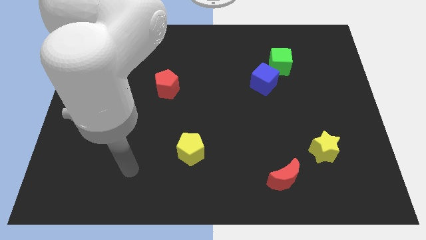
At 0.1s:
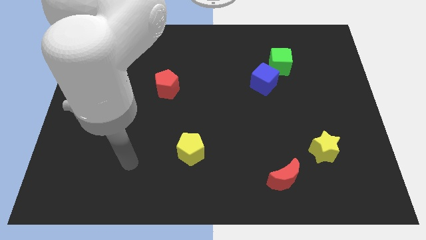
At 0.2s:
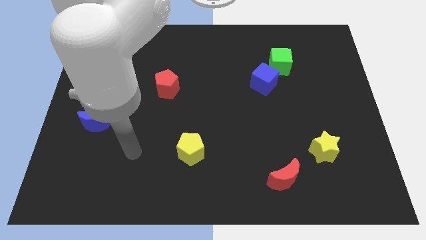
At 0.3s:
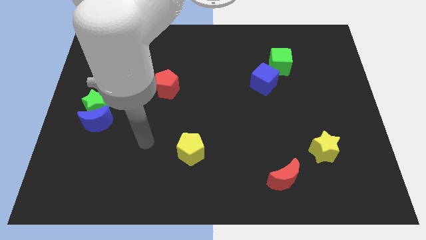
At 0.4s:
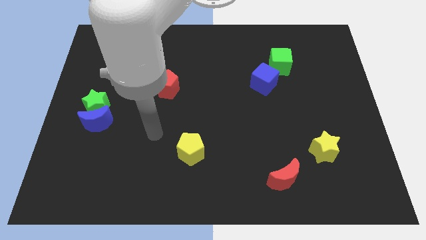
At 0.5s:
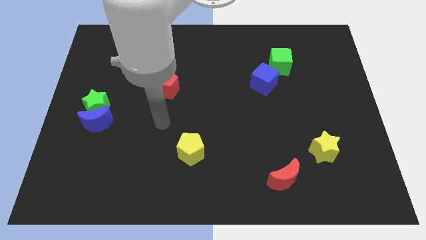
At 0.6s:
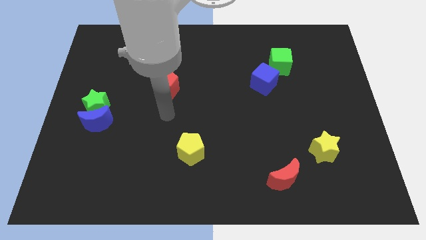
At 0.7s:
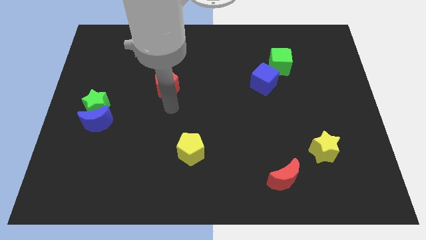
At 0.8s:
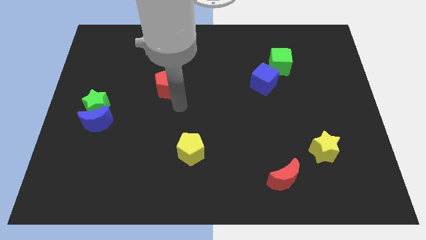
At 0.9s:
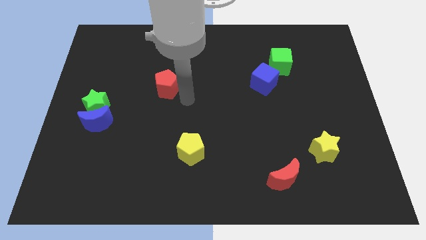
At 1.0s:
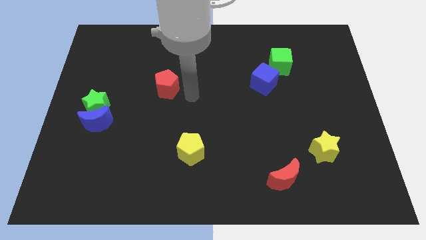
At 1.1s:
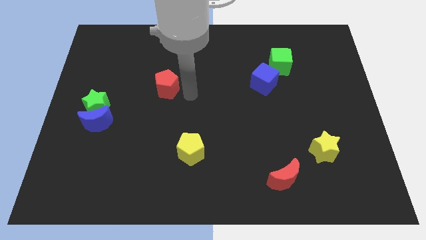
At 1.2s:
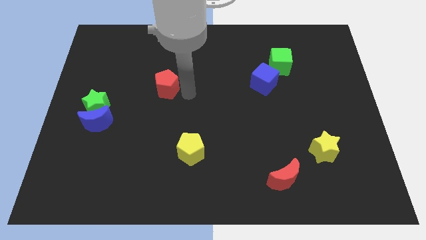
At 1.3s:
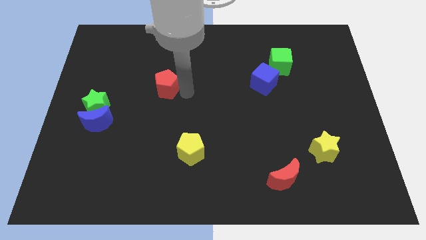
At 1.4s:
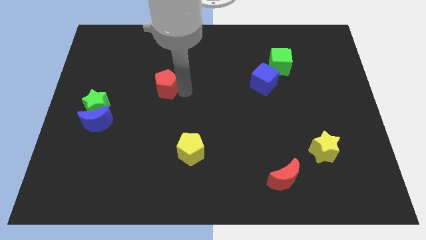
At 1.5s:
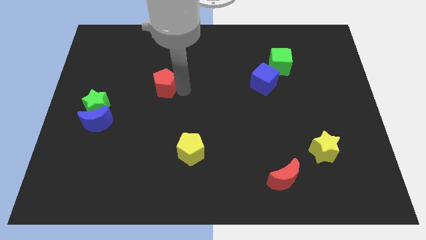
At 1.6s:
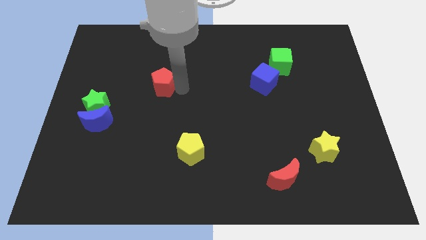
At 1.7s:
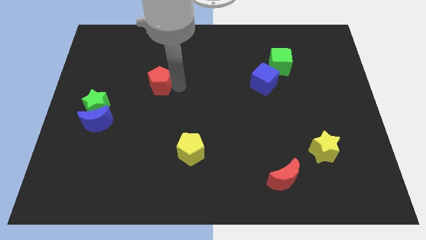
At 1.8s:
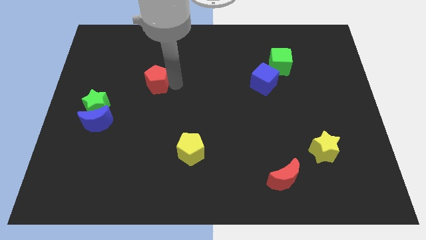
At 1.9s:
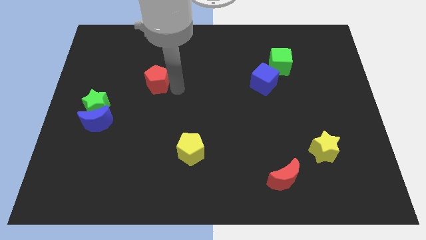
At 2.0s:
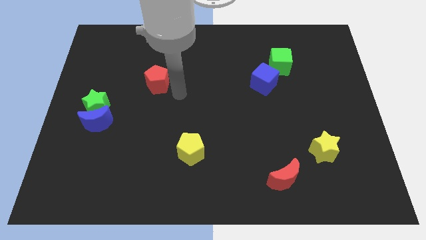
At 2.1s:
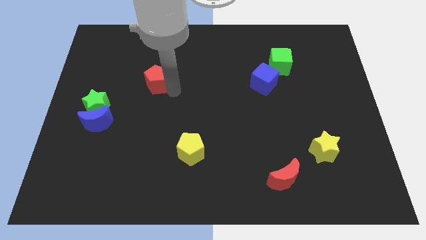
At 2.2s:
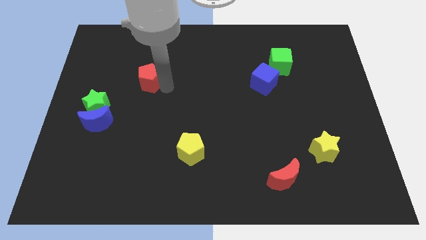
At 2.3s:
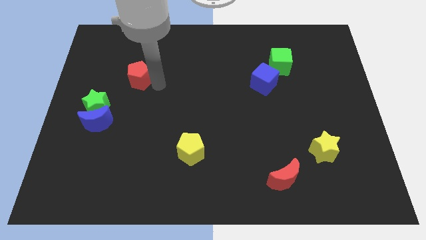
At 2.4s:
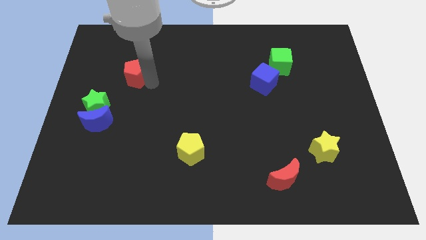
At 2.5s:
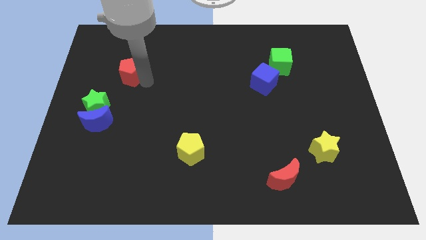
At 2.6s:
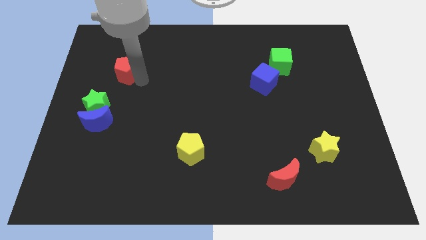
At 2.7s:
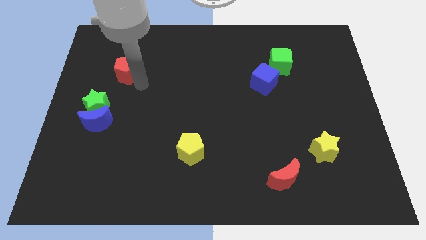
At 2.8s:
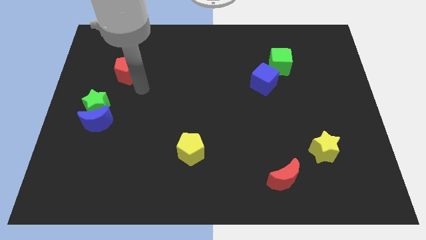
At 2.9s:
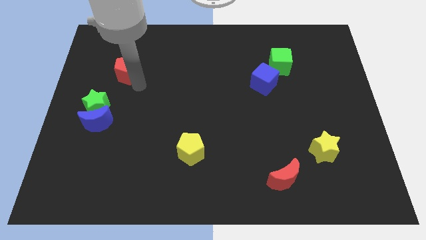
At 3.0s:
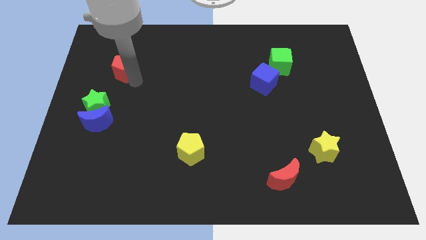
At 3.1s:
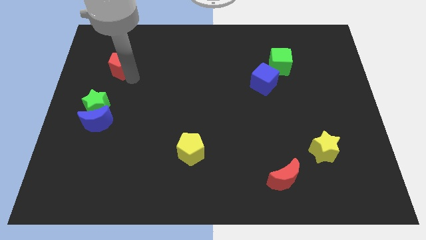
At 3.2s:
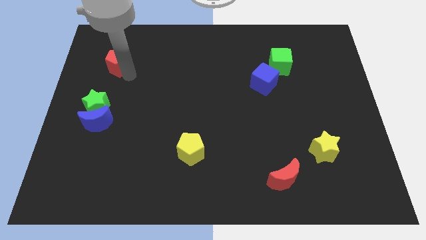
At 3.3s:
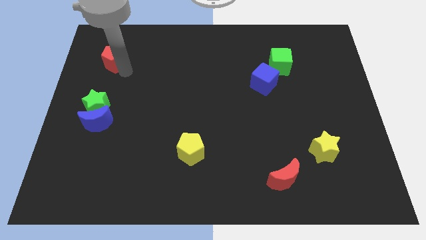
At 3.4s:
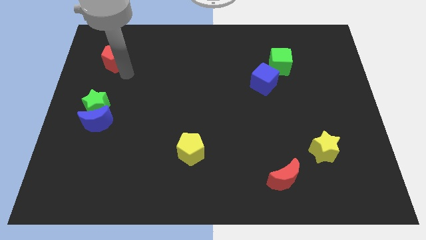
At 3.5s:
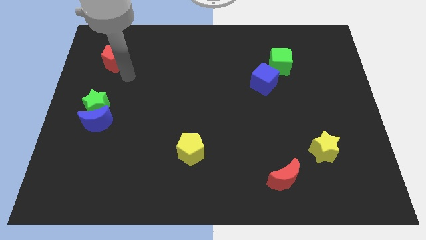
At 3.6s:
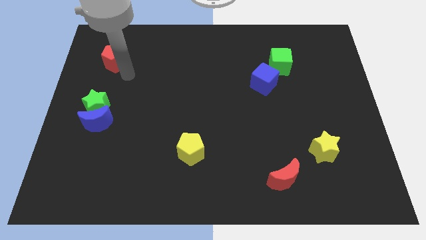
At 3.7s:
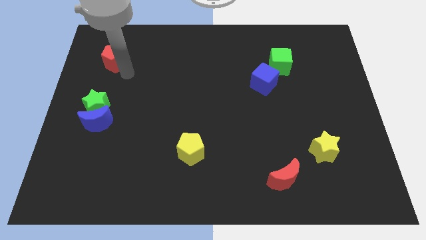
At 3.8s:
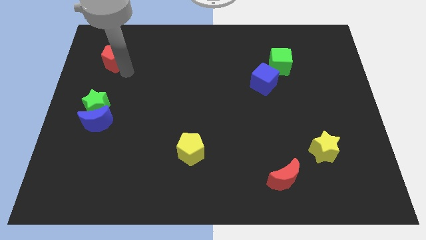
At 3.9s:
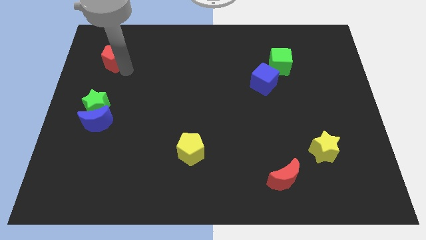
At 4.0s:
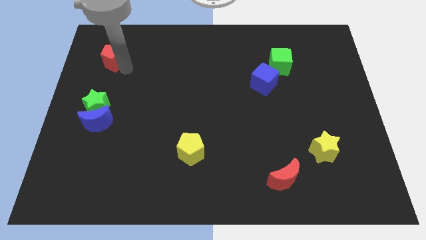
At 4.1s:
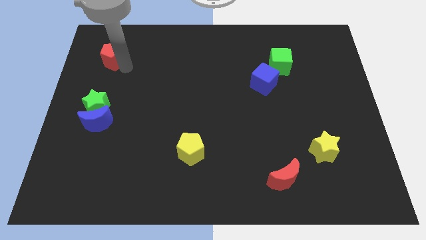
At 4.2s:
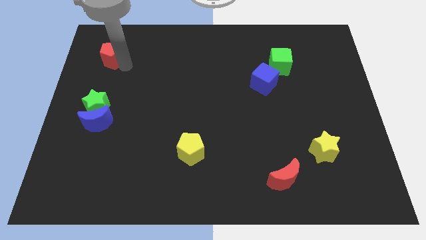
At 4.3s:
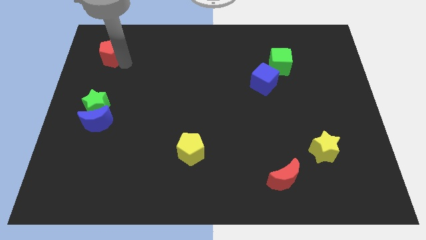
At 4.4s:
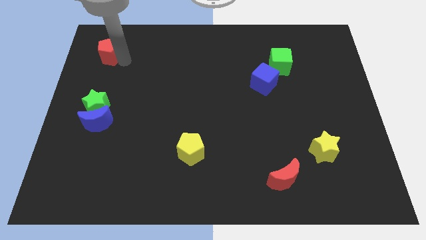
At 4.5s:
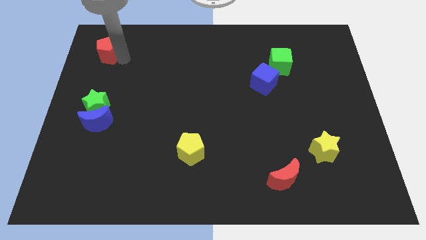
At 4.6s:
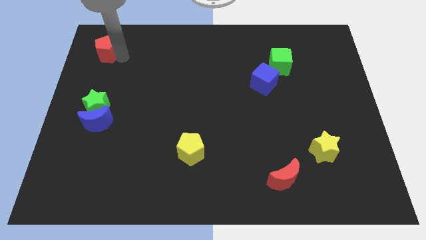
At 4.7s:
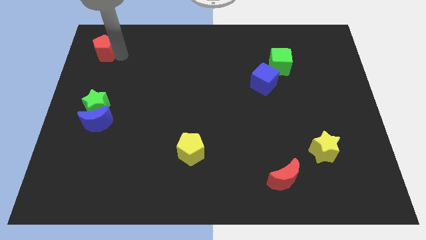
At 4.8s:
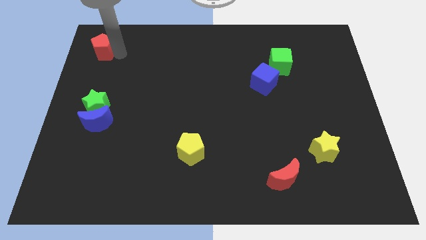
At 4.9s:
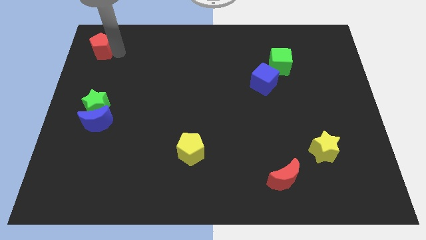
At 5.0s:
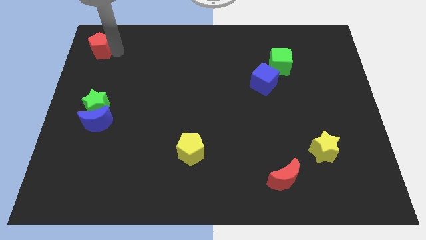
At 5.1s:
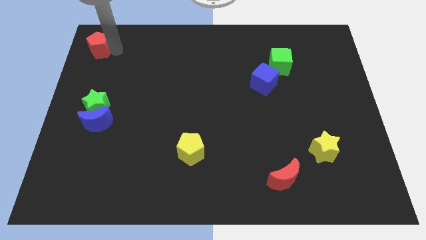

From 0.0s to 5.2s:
push the red pentagon to the top left
